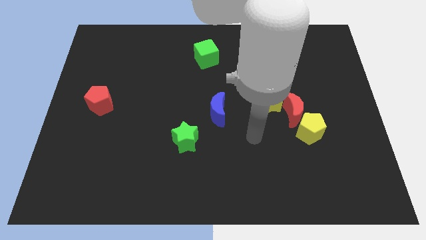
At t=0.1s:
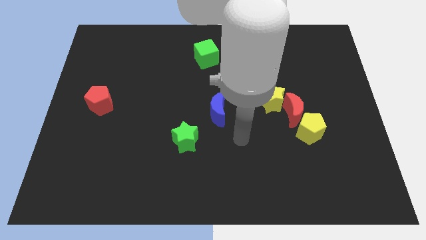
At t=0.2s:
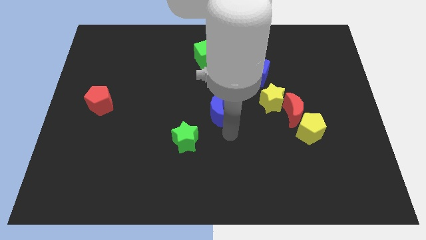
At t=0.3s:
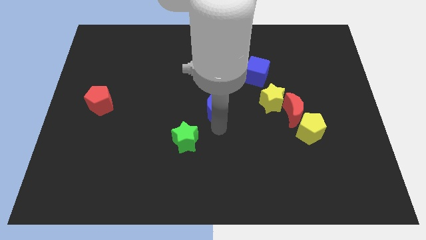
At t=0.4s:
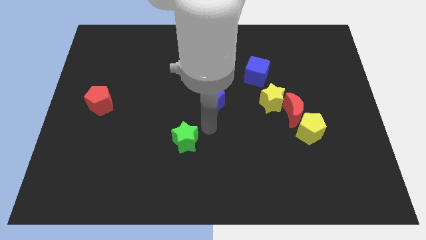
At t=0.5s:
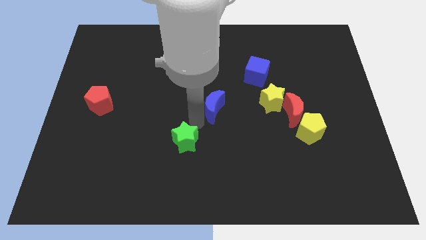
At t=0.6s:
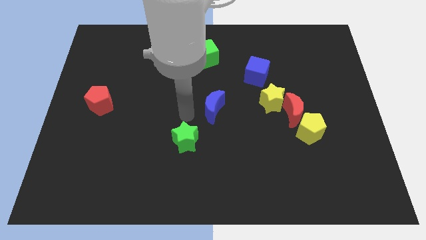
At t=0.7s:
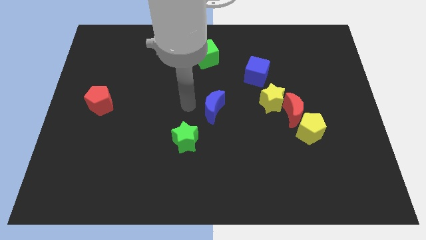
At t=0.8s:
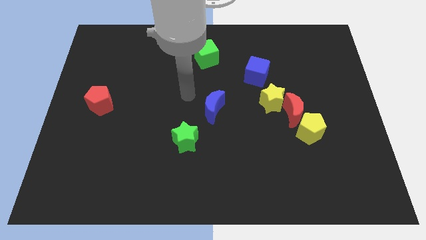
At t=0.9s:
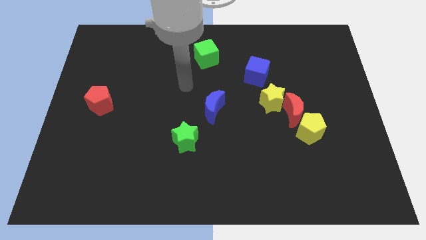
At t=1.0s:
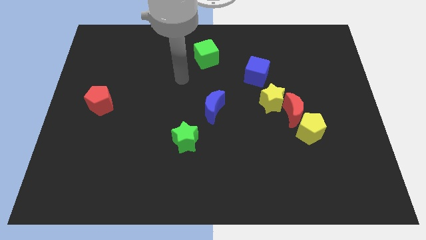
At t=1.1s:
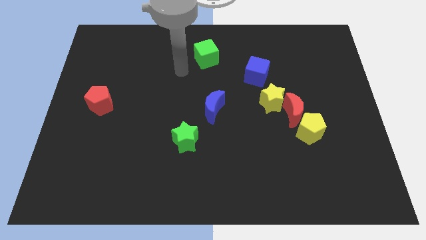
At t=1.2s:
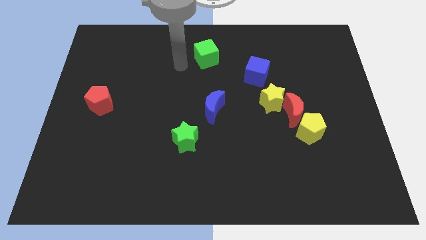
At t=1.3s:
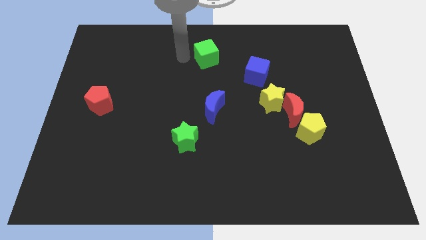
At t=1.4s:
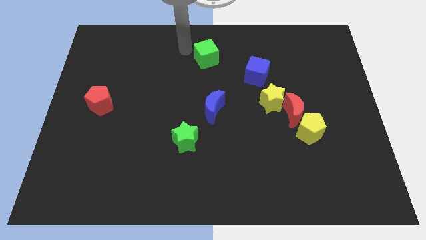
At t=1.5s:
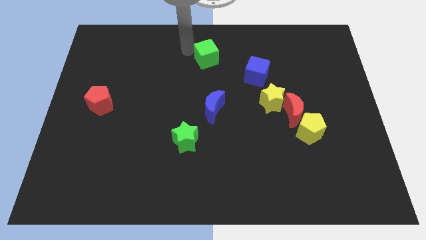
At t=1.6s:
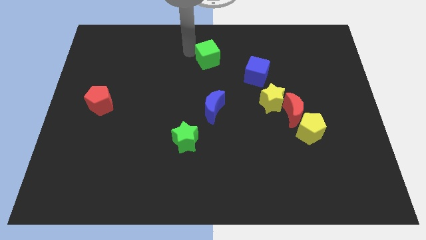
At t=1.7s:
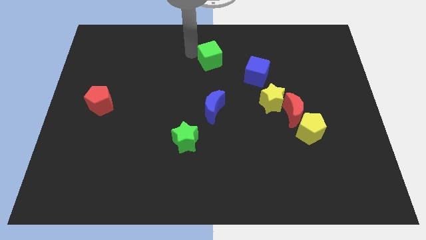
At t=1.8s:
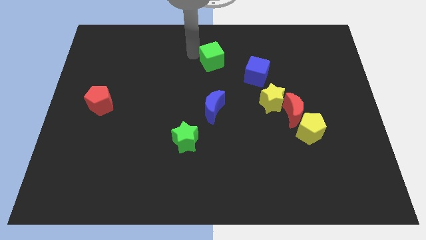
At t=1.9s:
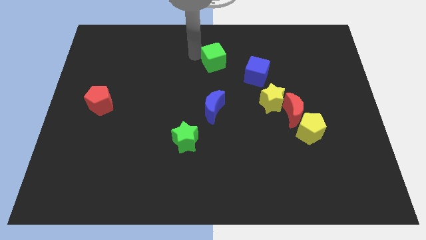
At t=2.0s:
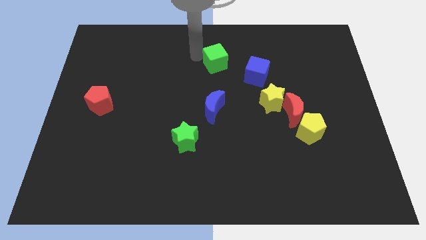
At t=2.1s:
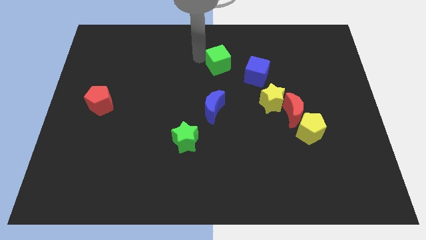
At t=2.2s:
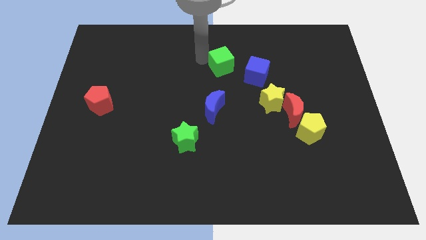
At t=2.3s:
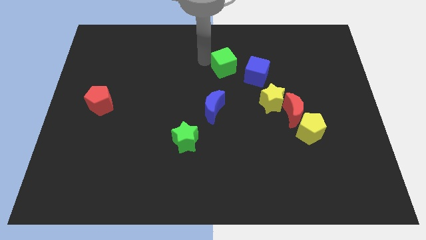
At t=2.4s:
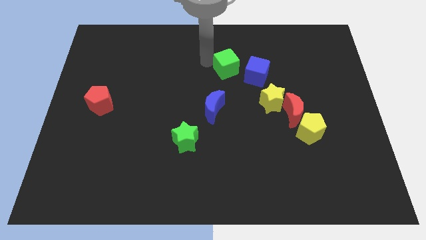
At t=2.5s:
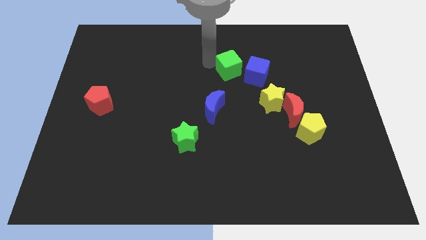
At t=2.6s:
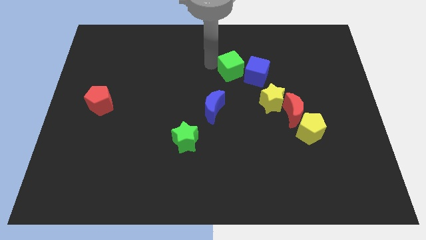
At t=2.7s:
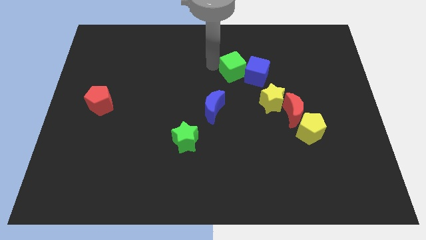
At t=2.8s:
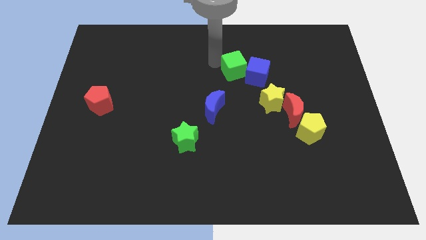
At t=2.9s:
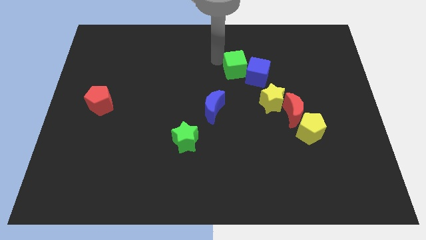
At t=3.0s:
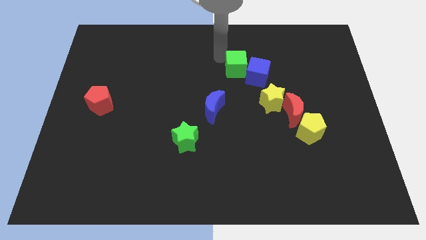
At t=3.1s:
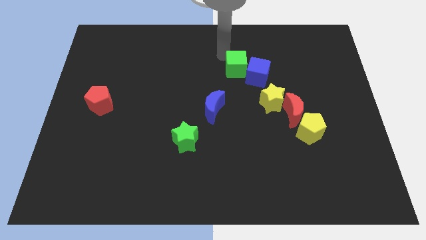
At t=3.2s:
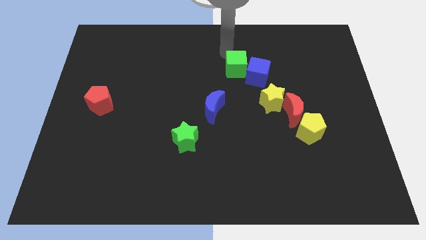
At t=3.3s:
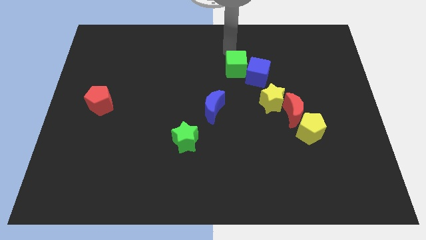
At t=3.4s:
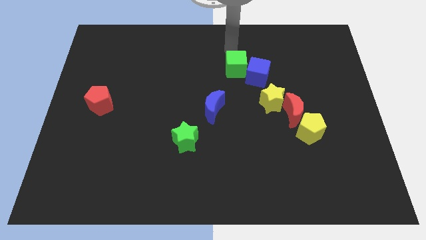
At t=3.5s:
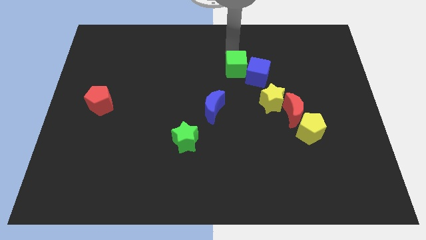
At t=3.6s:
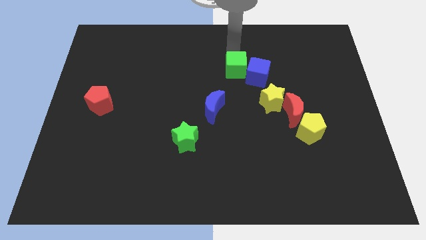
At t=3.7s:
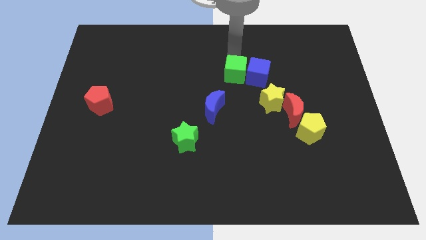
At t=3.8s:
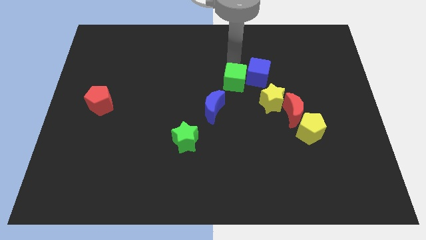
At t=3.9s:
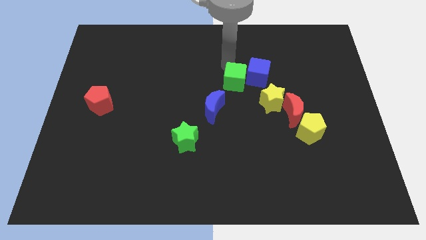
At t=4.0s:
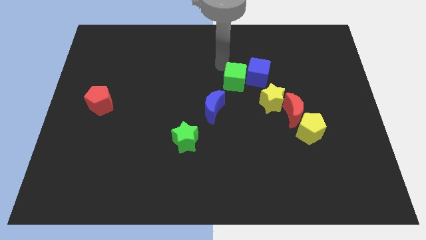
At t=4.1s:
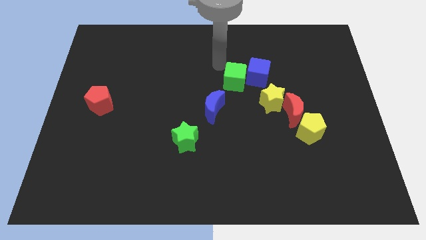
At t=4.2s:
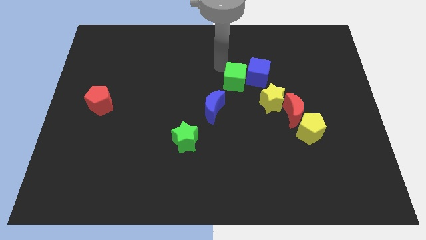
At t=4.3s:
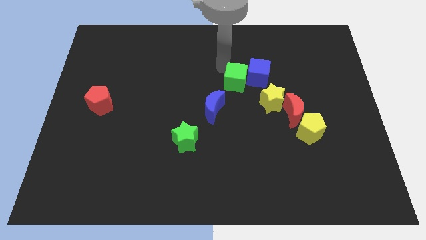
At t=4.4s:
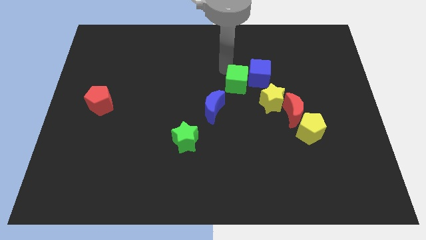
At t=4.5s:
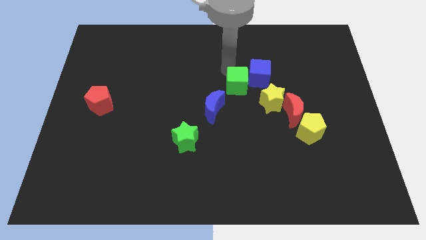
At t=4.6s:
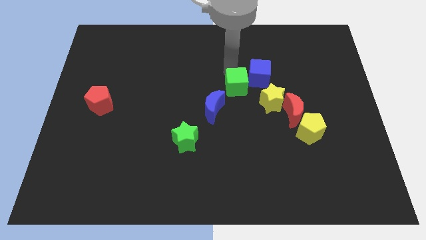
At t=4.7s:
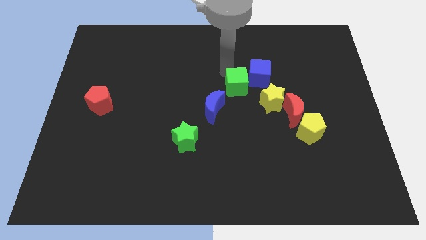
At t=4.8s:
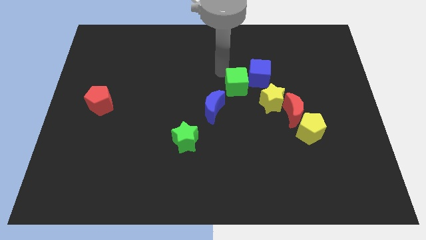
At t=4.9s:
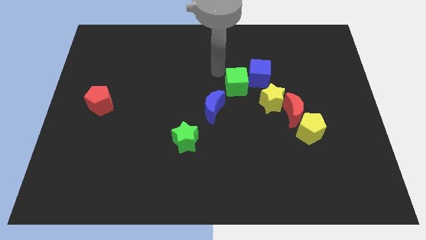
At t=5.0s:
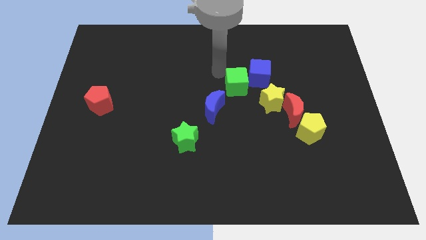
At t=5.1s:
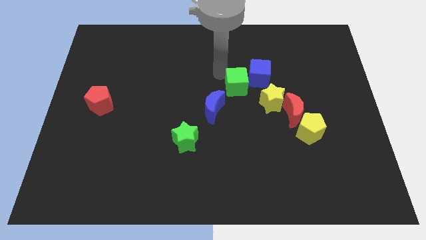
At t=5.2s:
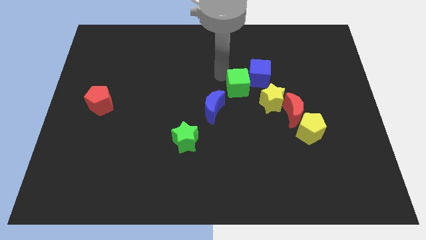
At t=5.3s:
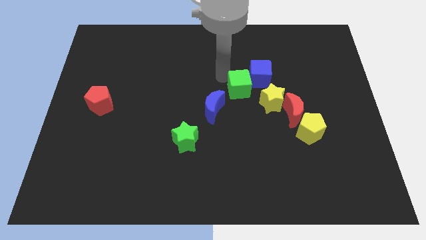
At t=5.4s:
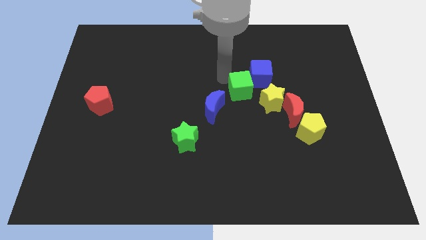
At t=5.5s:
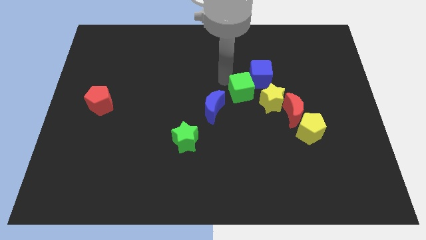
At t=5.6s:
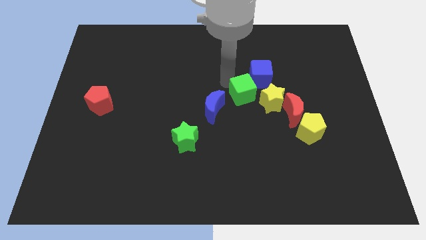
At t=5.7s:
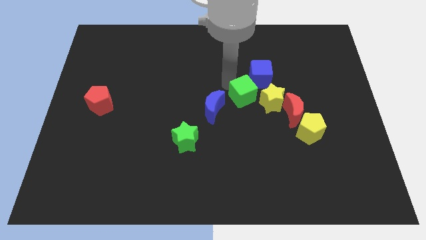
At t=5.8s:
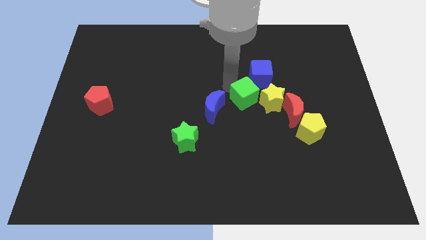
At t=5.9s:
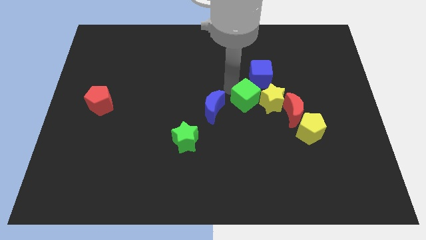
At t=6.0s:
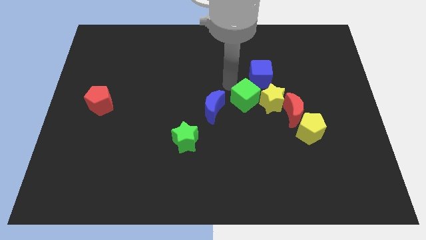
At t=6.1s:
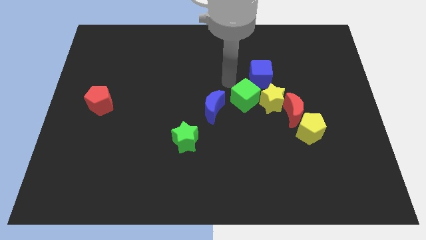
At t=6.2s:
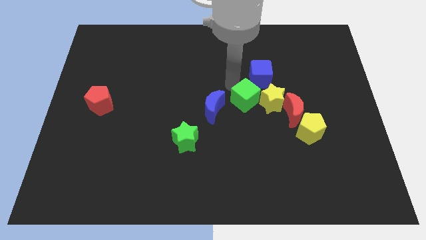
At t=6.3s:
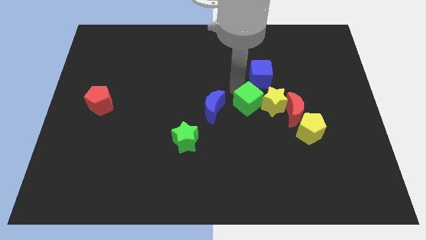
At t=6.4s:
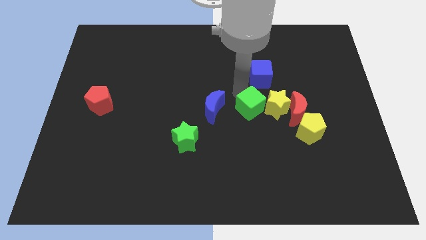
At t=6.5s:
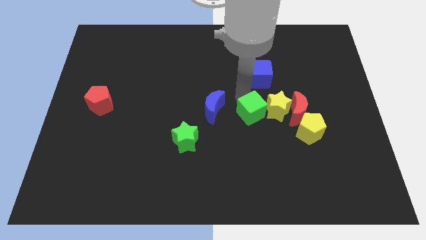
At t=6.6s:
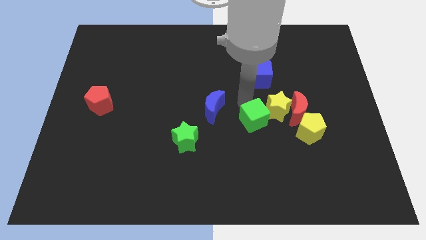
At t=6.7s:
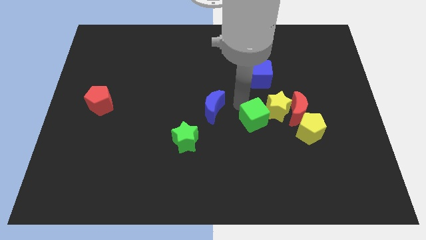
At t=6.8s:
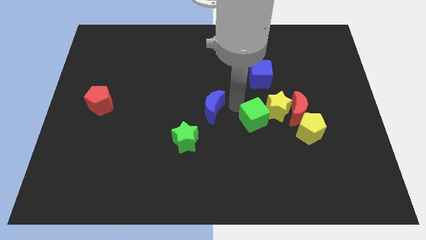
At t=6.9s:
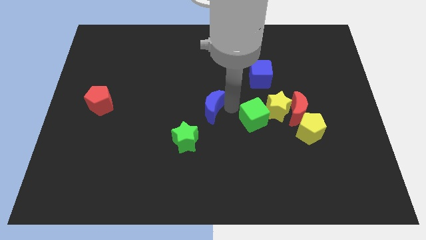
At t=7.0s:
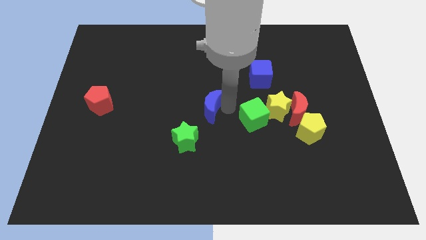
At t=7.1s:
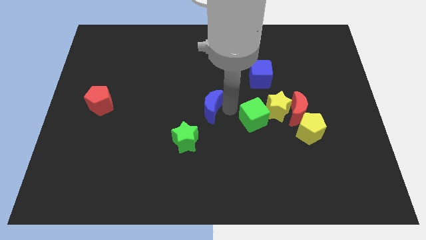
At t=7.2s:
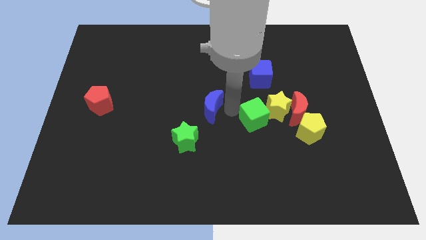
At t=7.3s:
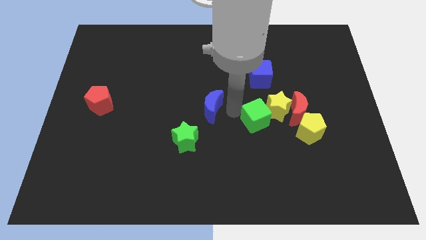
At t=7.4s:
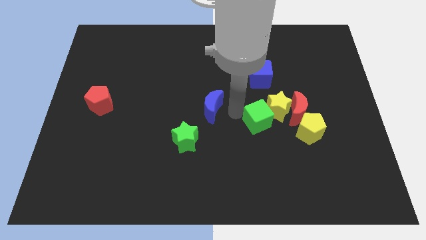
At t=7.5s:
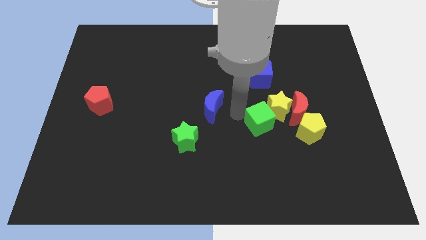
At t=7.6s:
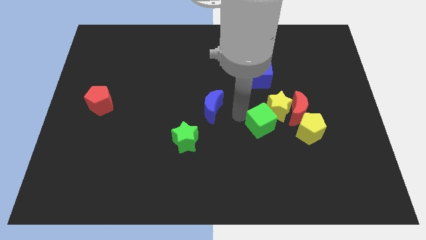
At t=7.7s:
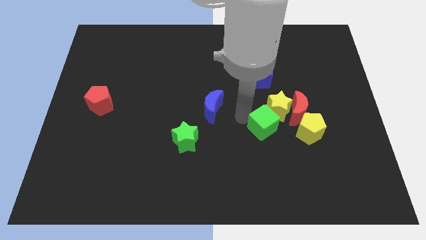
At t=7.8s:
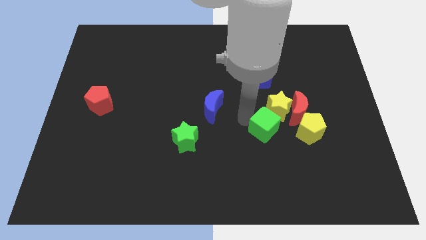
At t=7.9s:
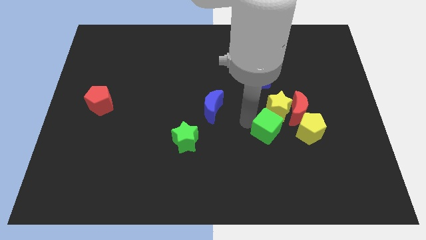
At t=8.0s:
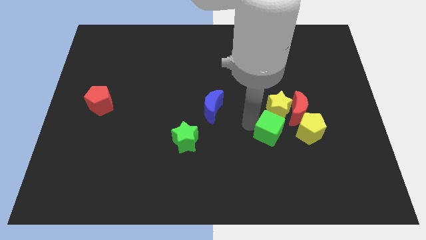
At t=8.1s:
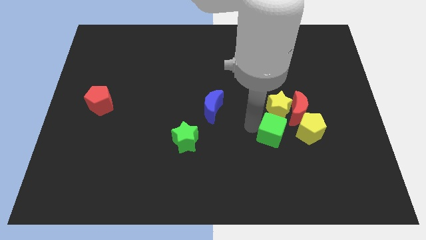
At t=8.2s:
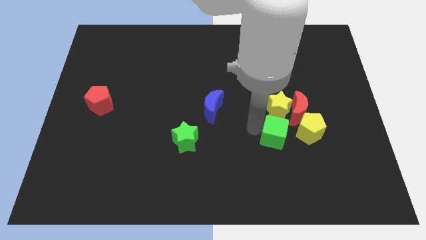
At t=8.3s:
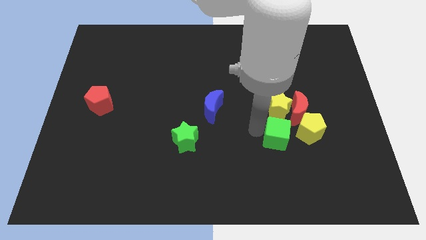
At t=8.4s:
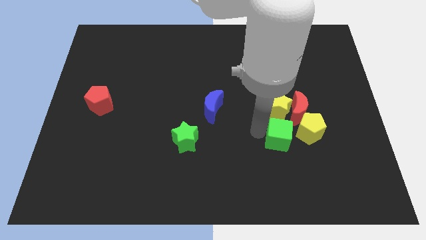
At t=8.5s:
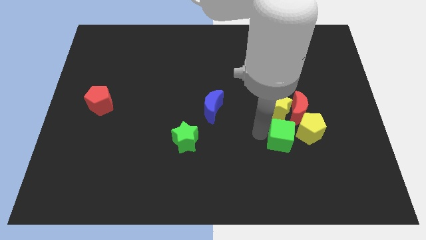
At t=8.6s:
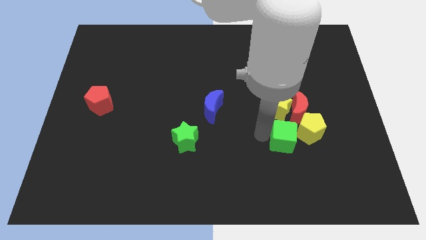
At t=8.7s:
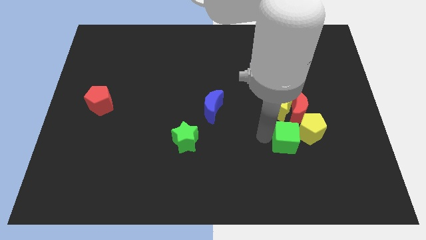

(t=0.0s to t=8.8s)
push the green cube to the yellow pentagon
